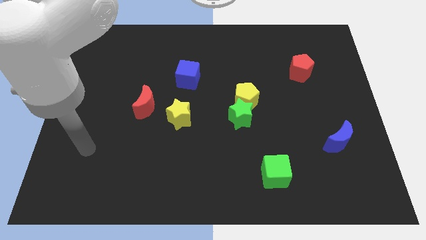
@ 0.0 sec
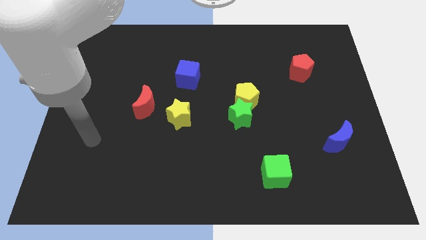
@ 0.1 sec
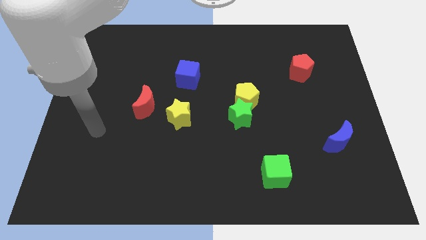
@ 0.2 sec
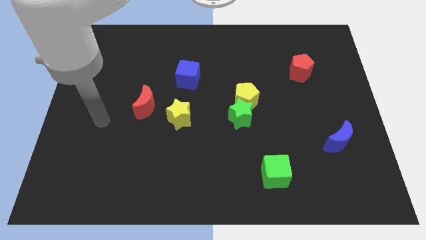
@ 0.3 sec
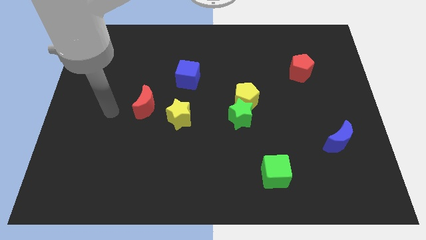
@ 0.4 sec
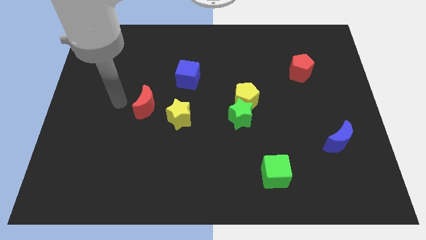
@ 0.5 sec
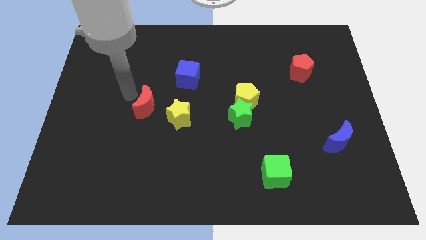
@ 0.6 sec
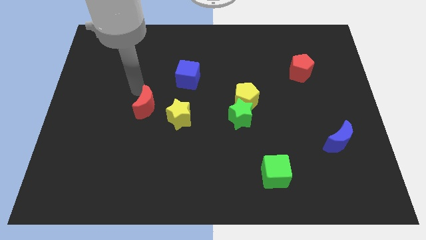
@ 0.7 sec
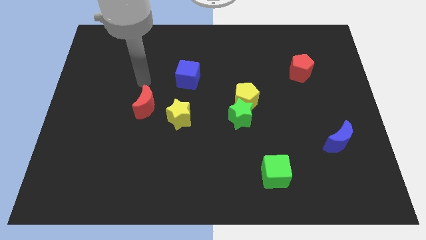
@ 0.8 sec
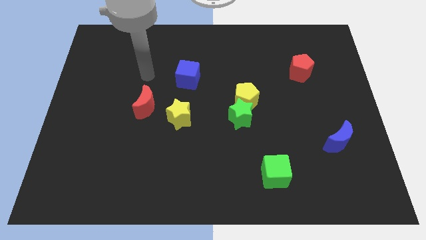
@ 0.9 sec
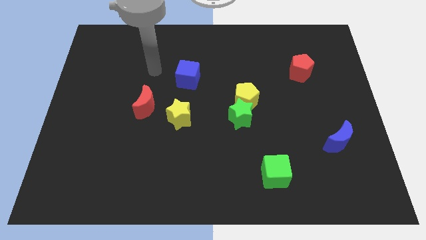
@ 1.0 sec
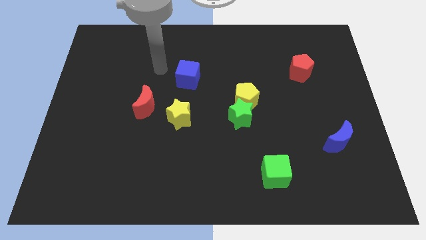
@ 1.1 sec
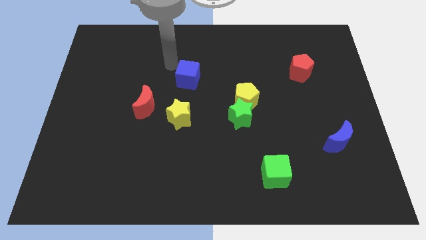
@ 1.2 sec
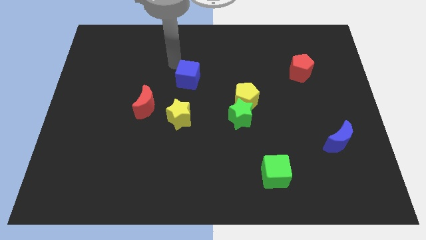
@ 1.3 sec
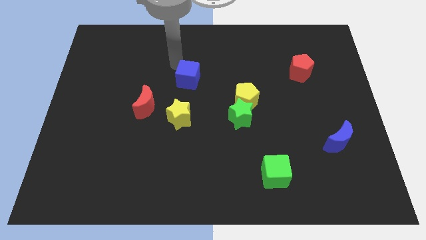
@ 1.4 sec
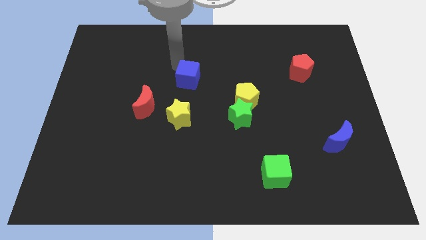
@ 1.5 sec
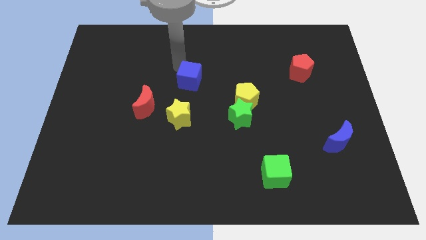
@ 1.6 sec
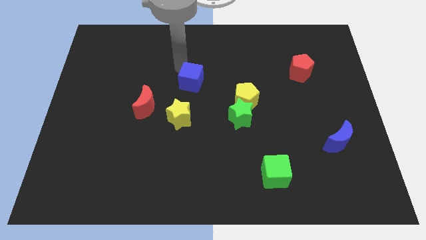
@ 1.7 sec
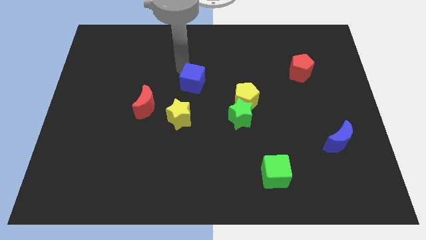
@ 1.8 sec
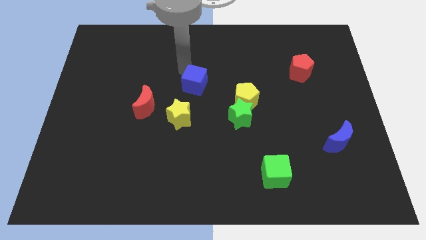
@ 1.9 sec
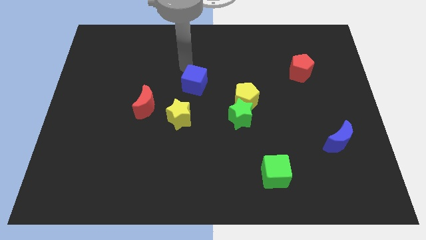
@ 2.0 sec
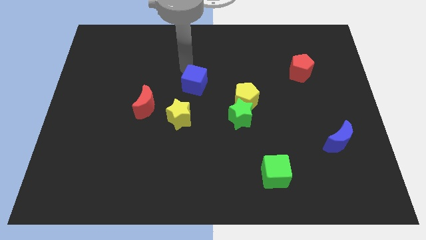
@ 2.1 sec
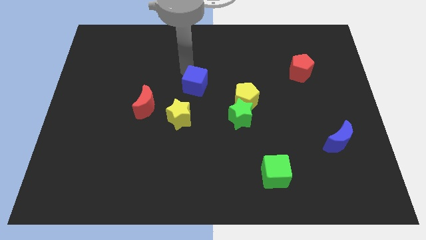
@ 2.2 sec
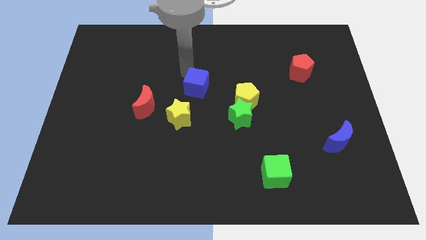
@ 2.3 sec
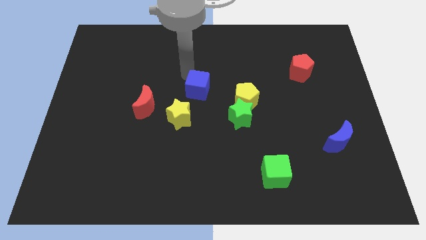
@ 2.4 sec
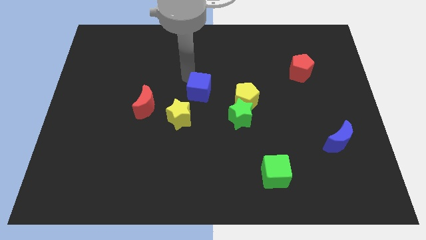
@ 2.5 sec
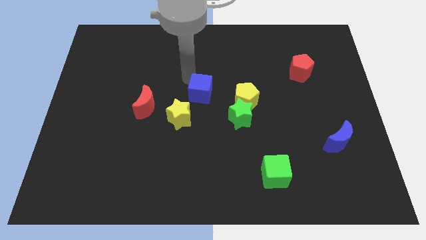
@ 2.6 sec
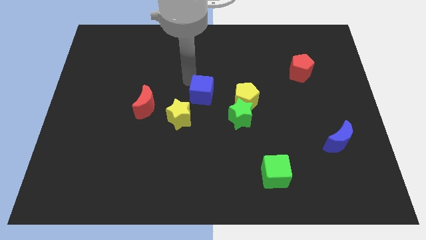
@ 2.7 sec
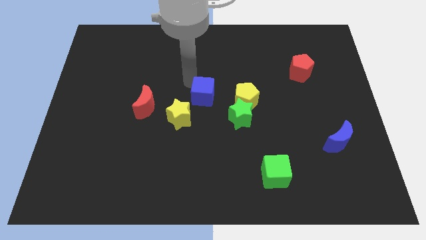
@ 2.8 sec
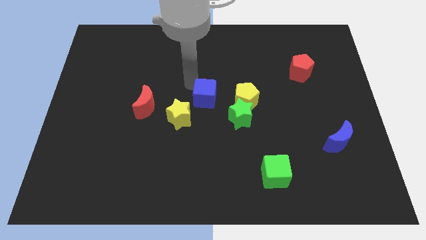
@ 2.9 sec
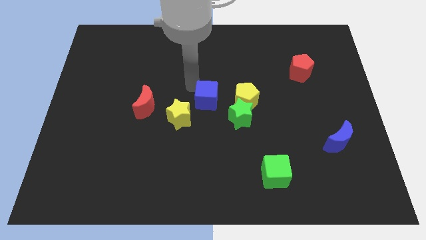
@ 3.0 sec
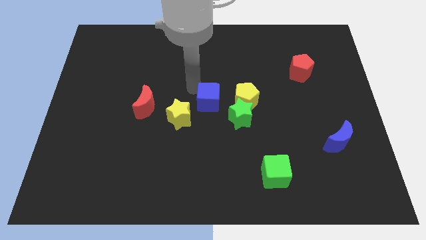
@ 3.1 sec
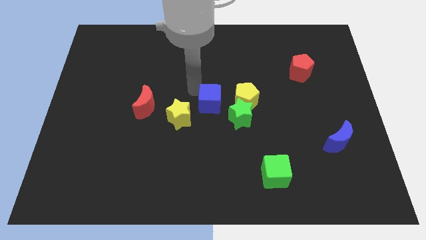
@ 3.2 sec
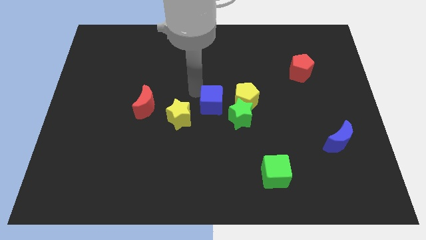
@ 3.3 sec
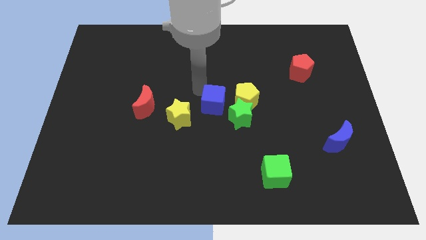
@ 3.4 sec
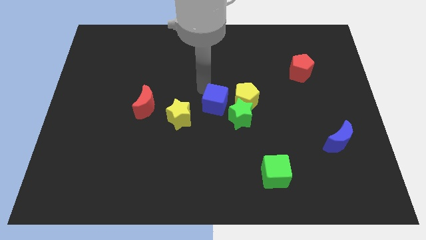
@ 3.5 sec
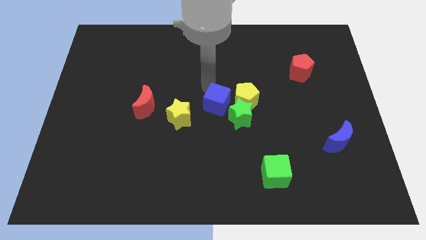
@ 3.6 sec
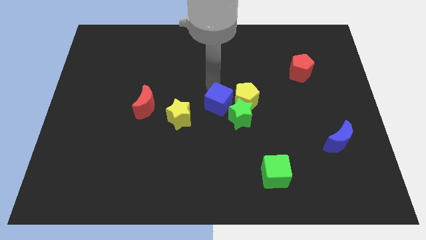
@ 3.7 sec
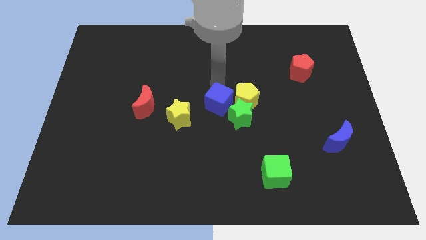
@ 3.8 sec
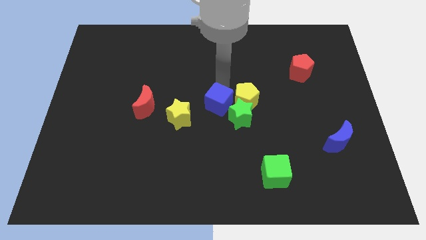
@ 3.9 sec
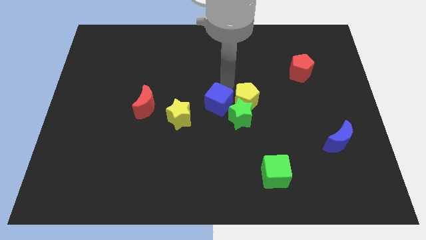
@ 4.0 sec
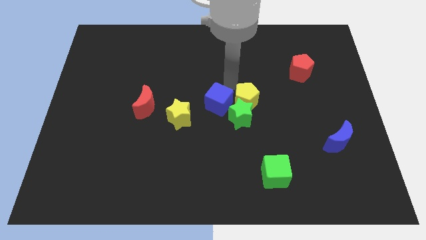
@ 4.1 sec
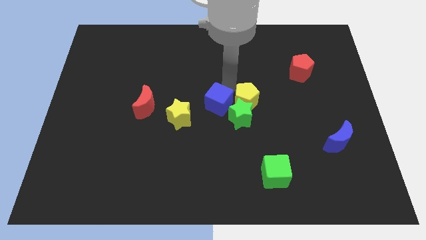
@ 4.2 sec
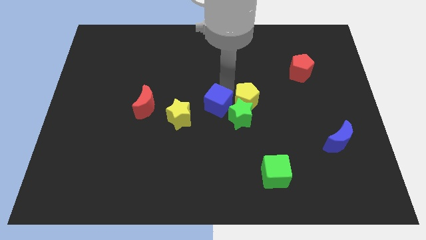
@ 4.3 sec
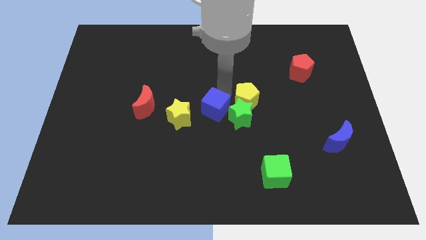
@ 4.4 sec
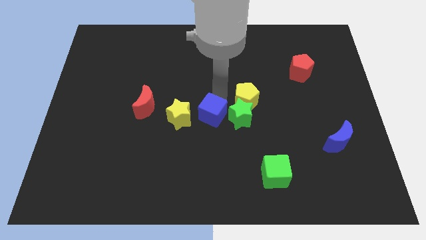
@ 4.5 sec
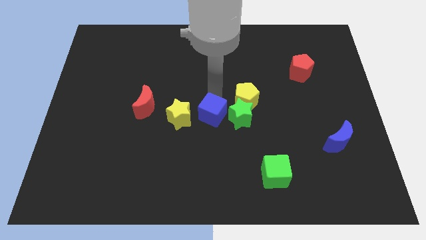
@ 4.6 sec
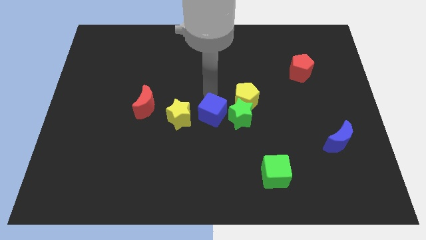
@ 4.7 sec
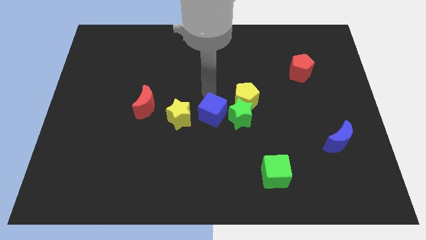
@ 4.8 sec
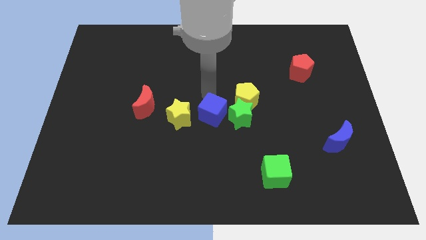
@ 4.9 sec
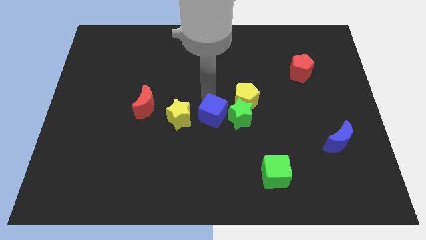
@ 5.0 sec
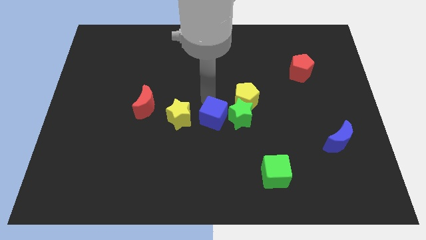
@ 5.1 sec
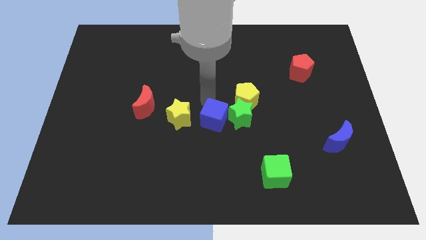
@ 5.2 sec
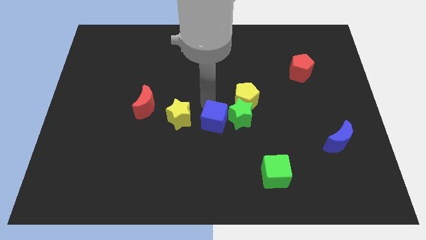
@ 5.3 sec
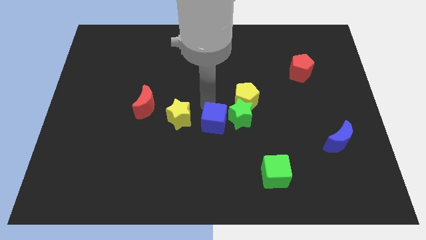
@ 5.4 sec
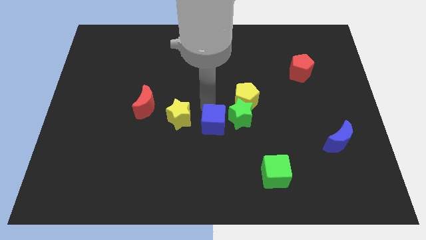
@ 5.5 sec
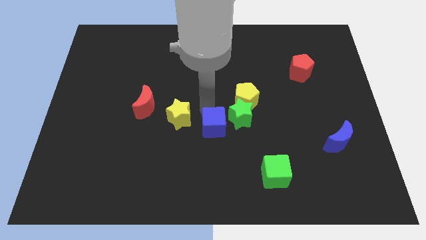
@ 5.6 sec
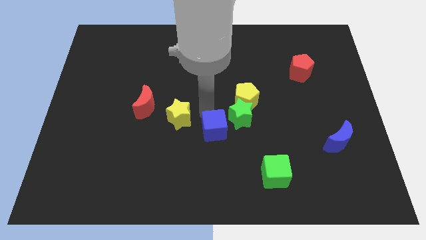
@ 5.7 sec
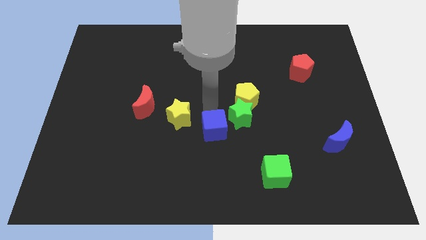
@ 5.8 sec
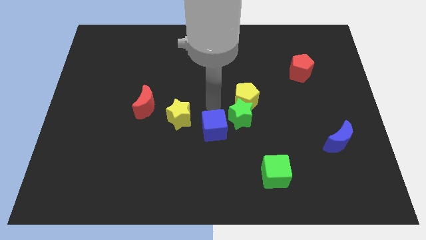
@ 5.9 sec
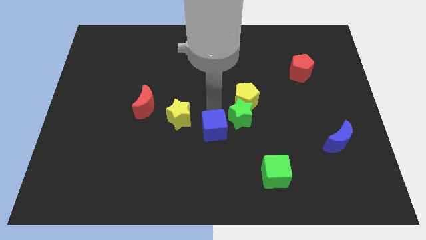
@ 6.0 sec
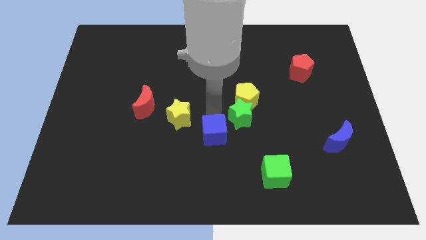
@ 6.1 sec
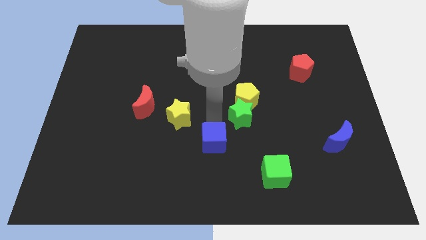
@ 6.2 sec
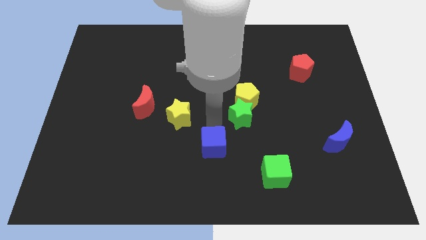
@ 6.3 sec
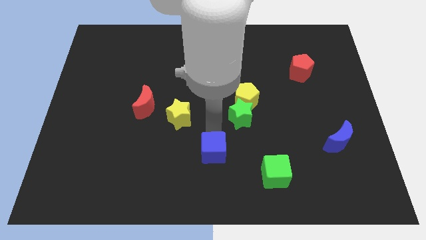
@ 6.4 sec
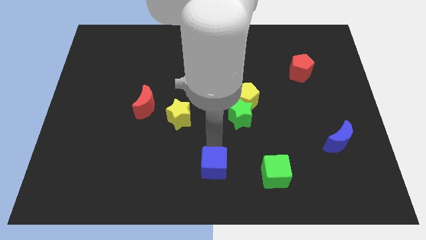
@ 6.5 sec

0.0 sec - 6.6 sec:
move the blue cube to the bottom

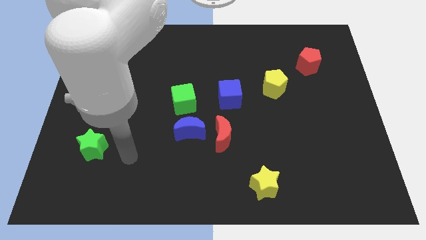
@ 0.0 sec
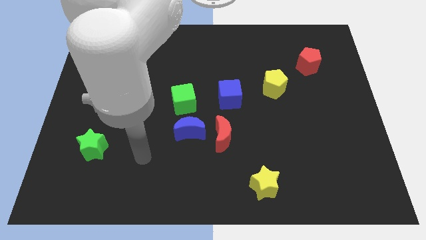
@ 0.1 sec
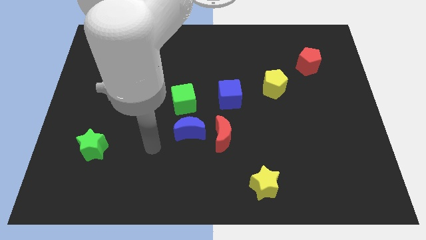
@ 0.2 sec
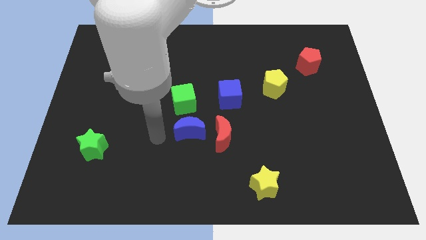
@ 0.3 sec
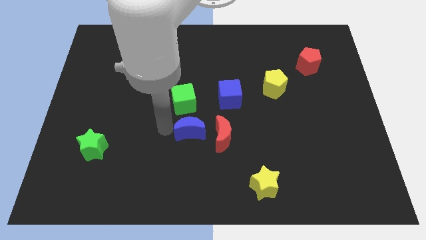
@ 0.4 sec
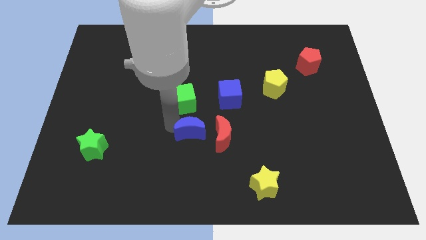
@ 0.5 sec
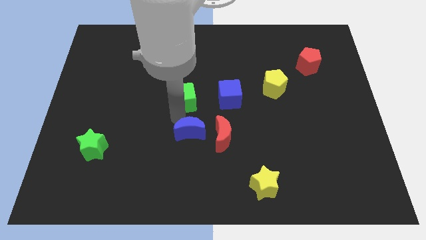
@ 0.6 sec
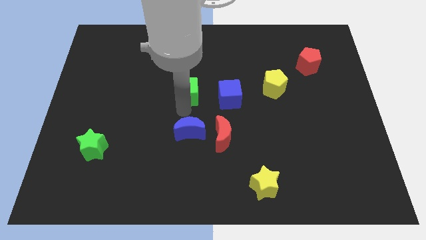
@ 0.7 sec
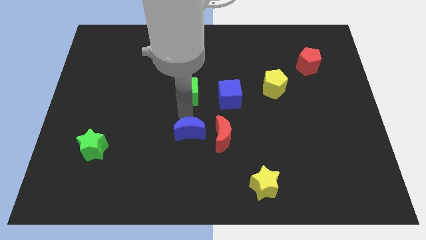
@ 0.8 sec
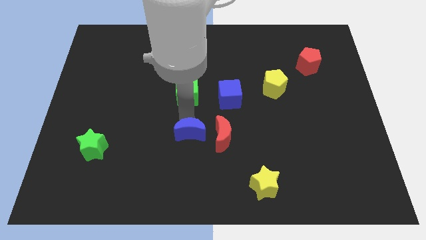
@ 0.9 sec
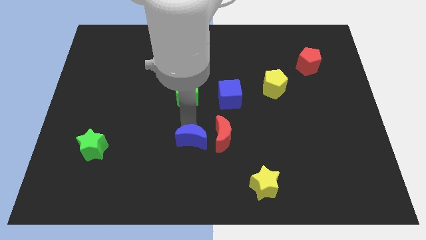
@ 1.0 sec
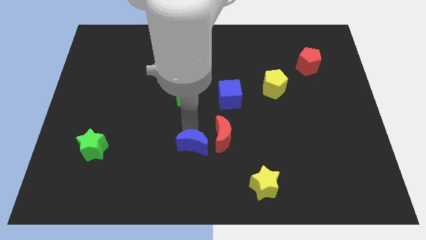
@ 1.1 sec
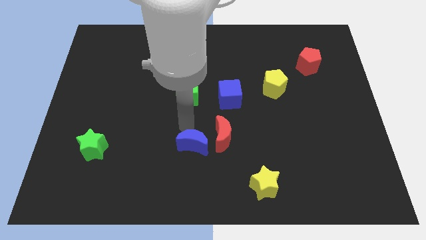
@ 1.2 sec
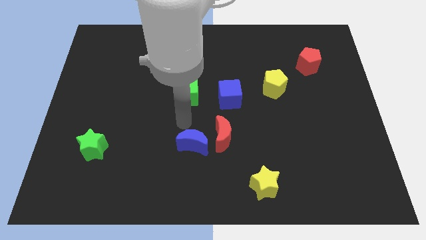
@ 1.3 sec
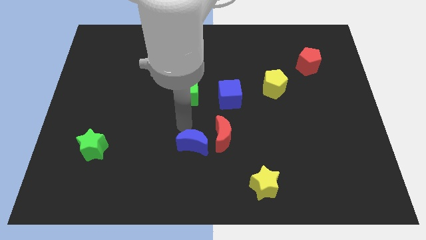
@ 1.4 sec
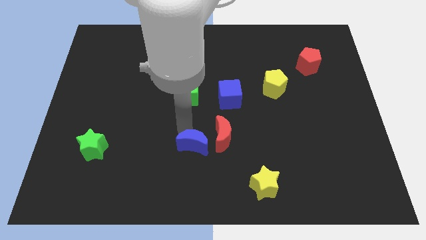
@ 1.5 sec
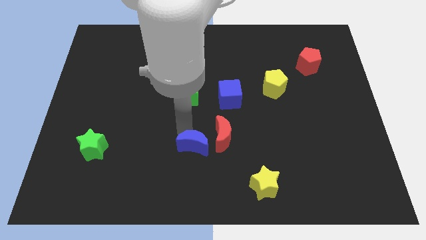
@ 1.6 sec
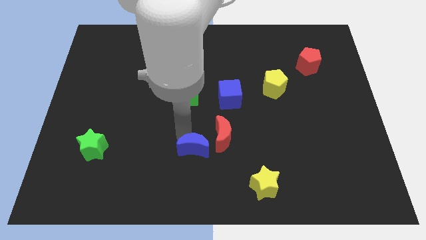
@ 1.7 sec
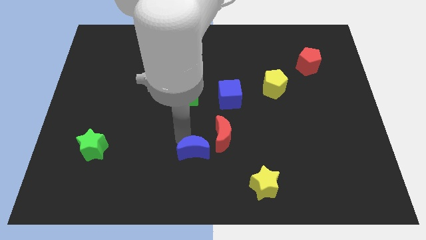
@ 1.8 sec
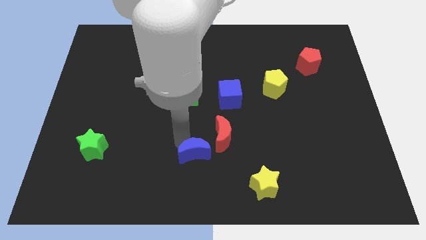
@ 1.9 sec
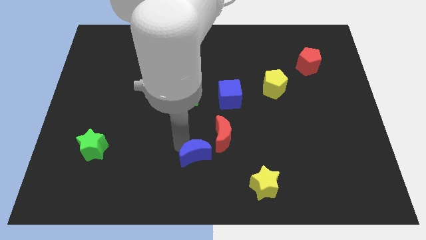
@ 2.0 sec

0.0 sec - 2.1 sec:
move the blue moon to the bottom side
